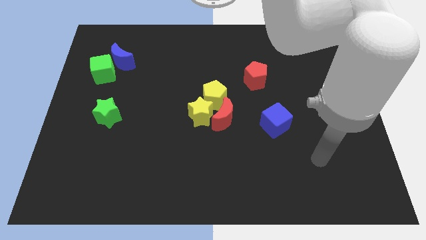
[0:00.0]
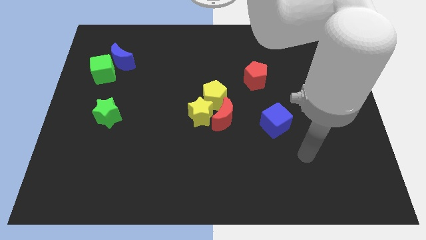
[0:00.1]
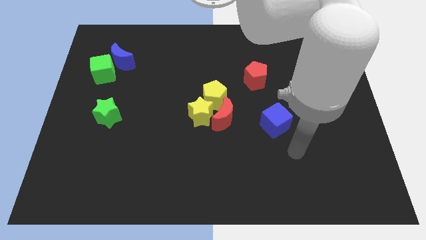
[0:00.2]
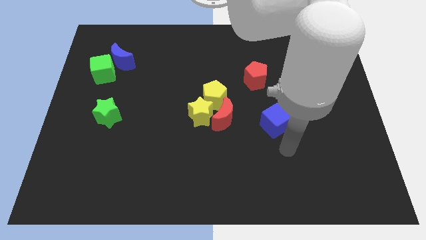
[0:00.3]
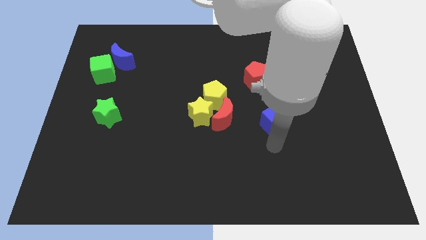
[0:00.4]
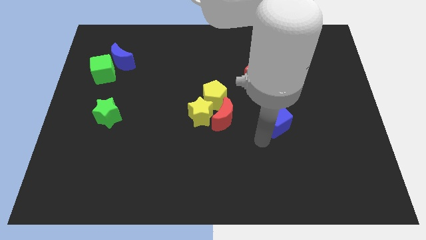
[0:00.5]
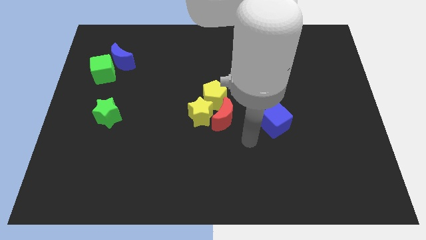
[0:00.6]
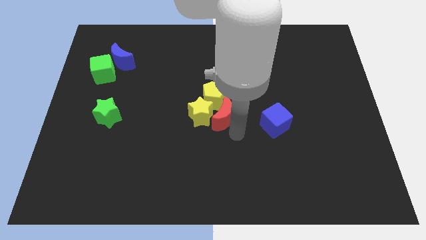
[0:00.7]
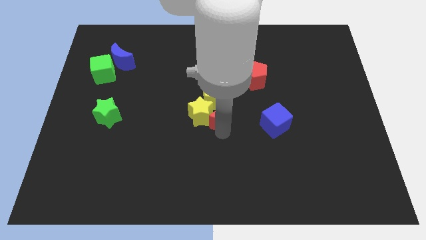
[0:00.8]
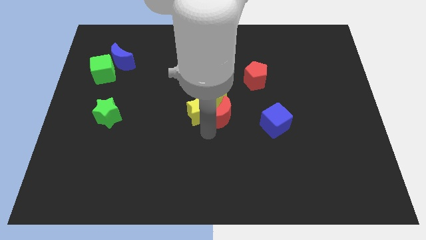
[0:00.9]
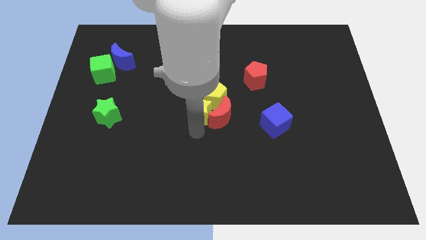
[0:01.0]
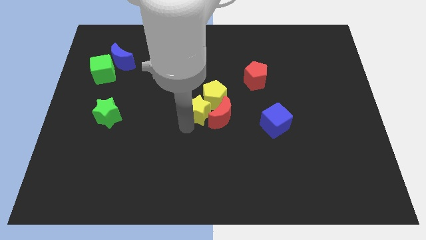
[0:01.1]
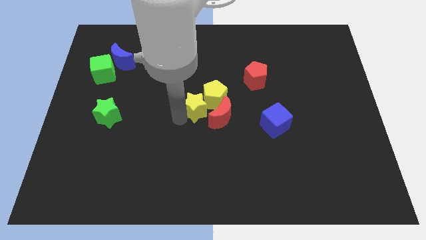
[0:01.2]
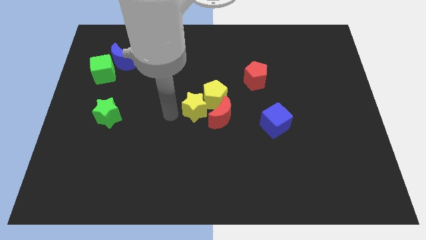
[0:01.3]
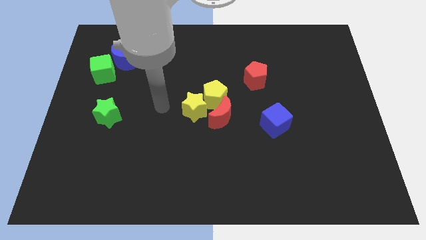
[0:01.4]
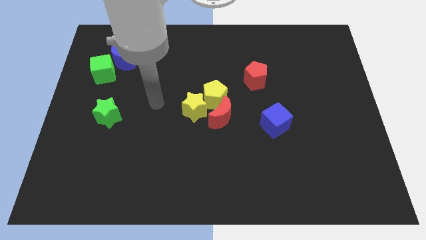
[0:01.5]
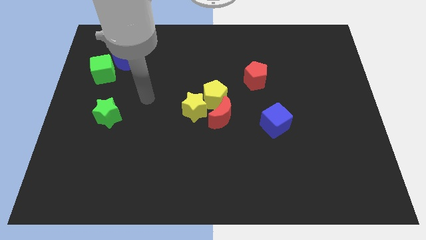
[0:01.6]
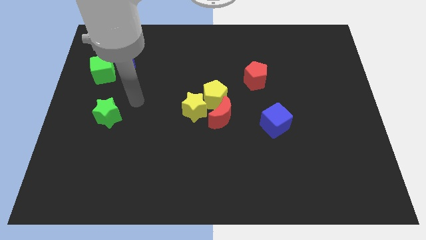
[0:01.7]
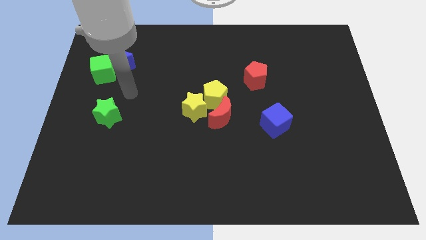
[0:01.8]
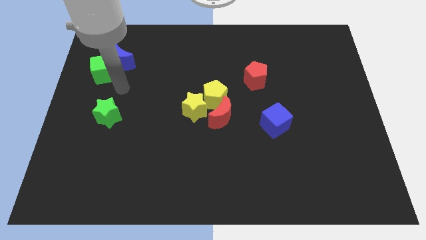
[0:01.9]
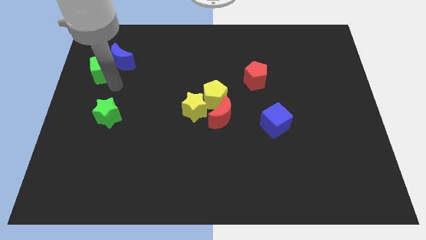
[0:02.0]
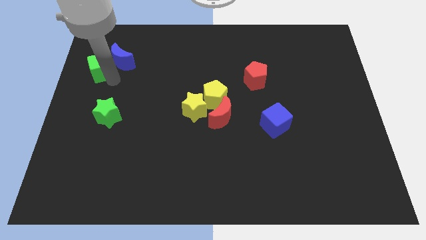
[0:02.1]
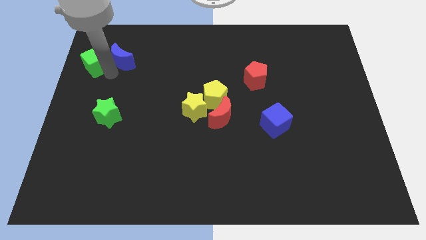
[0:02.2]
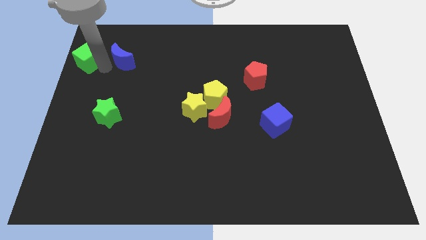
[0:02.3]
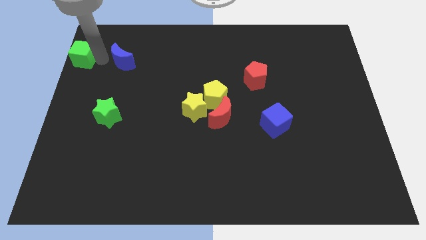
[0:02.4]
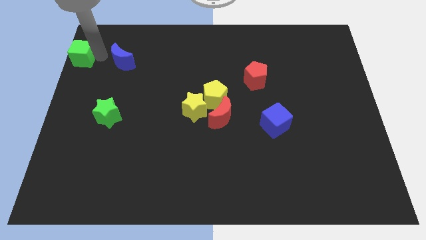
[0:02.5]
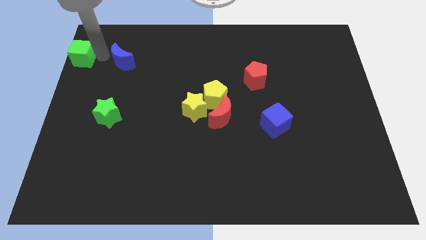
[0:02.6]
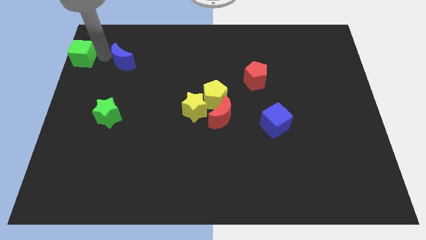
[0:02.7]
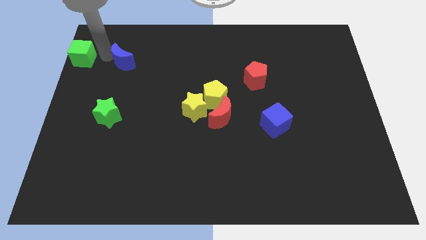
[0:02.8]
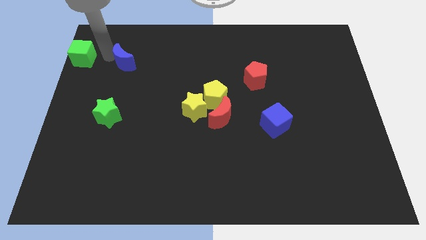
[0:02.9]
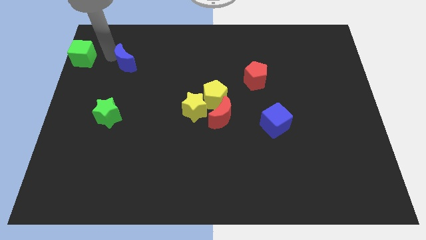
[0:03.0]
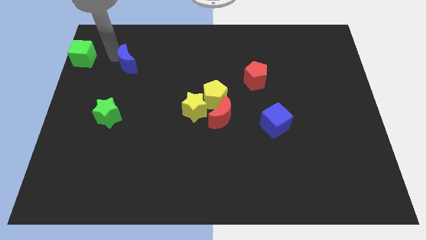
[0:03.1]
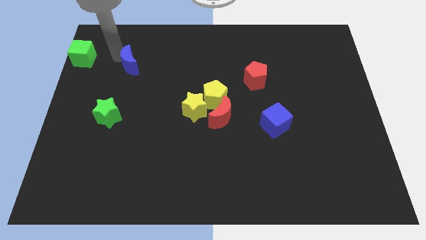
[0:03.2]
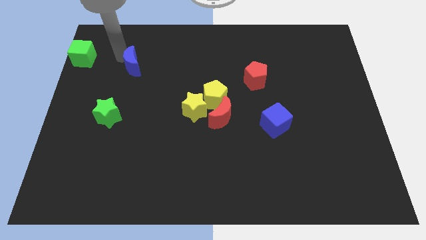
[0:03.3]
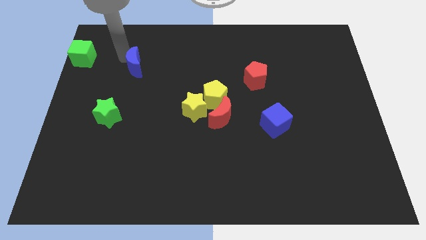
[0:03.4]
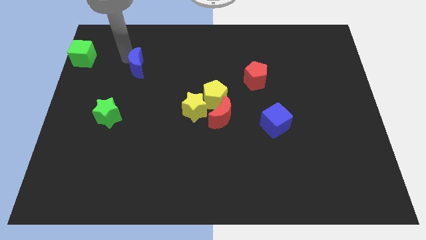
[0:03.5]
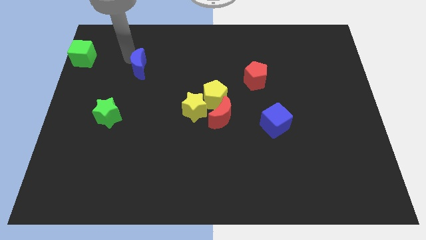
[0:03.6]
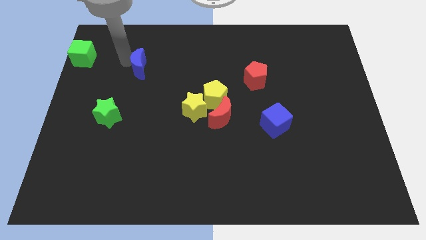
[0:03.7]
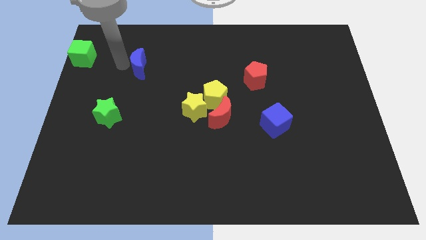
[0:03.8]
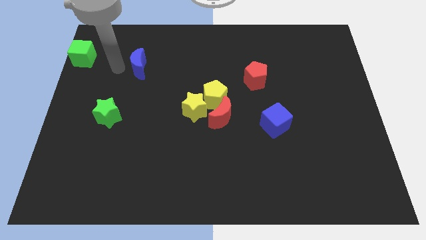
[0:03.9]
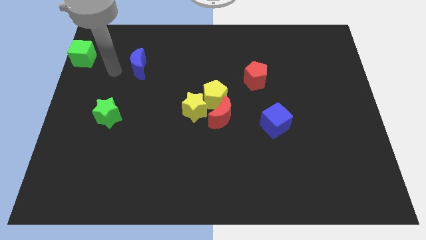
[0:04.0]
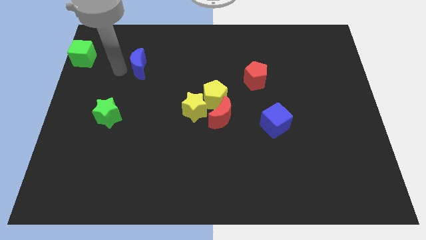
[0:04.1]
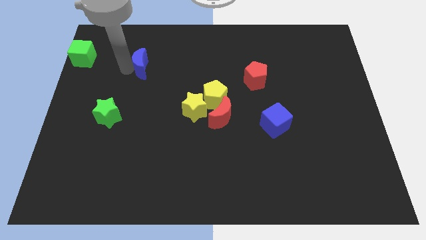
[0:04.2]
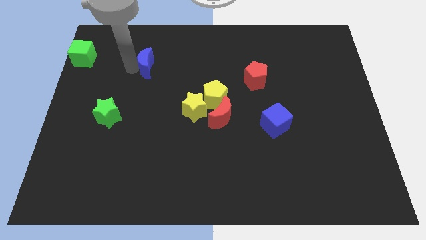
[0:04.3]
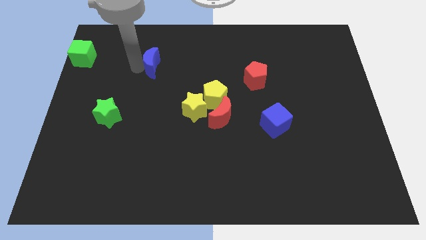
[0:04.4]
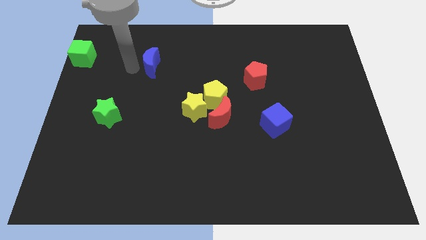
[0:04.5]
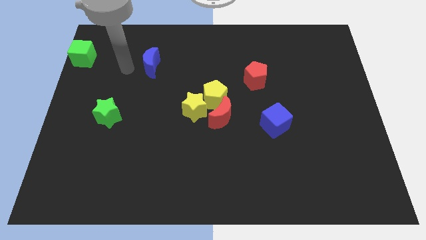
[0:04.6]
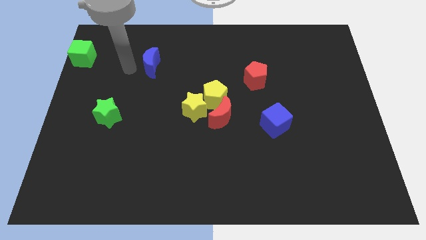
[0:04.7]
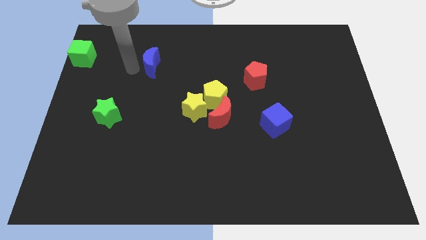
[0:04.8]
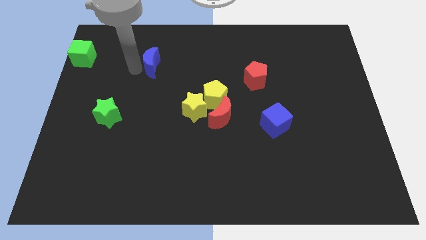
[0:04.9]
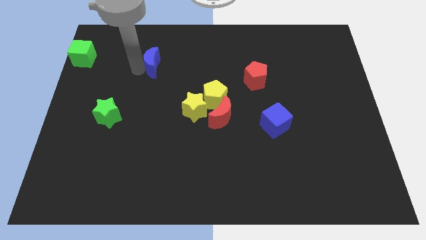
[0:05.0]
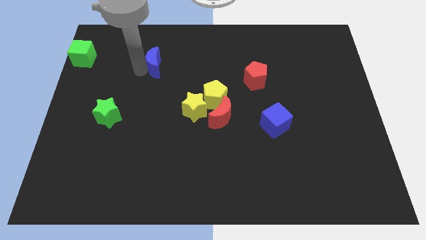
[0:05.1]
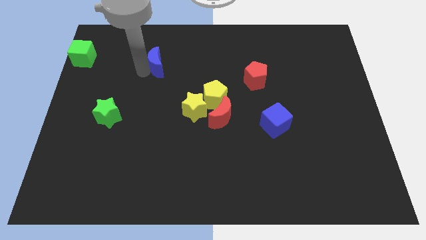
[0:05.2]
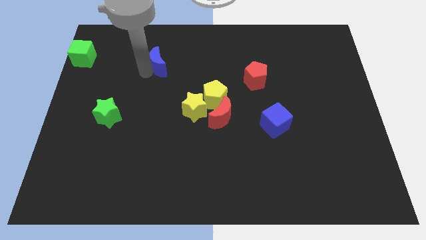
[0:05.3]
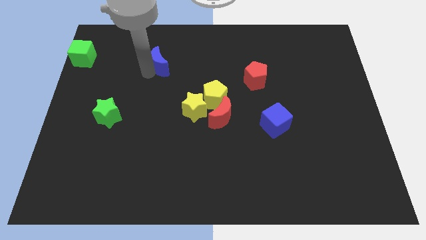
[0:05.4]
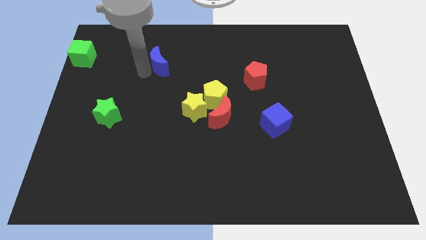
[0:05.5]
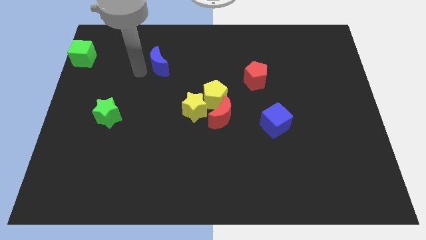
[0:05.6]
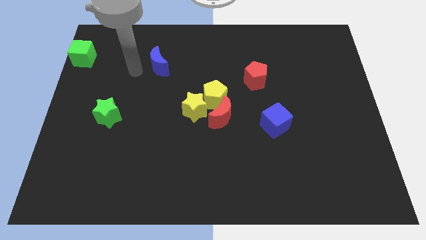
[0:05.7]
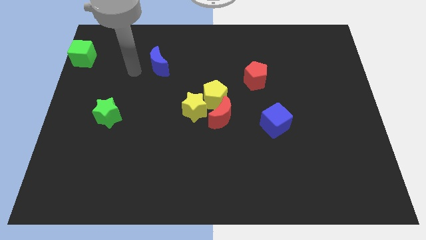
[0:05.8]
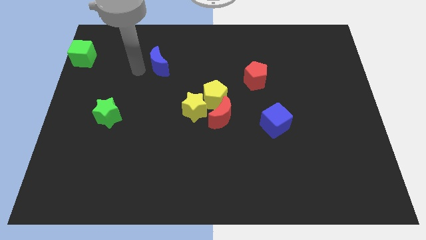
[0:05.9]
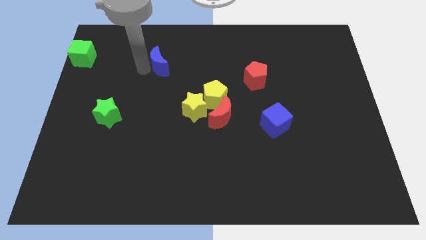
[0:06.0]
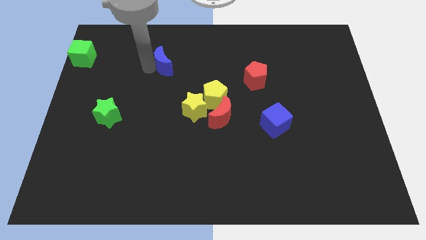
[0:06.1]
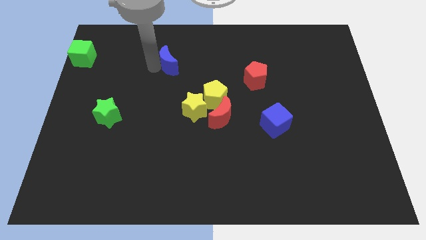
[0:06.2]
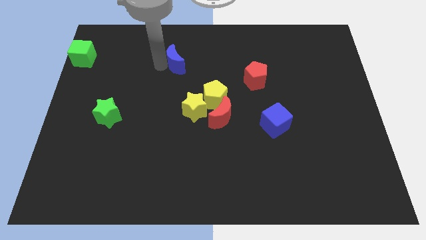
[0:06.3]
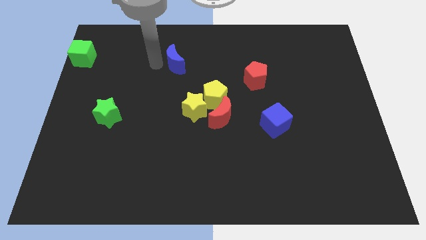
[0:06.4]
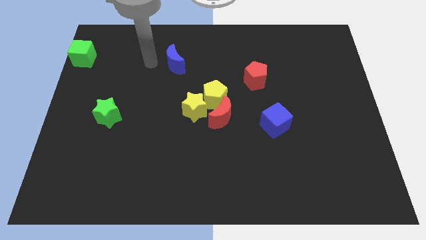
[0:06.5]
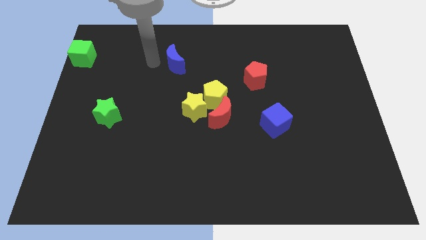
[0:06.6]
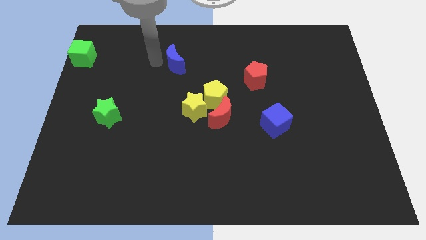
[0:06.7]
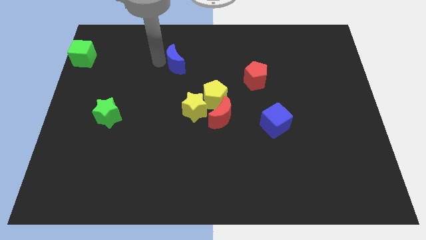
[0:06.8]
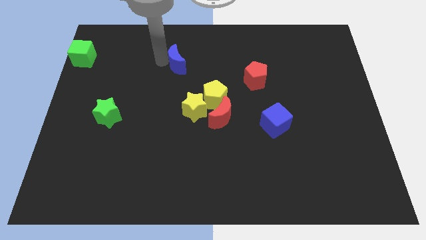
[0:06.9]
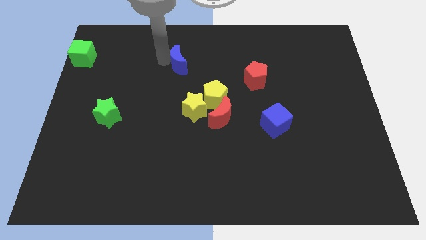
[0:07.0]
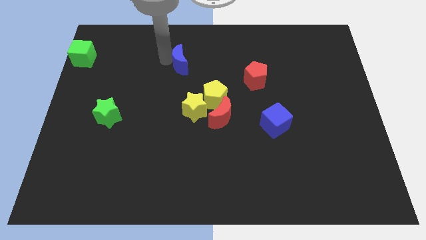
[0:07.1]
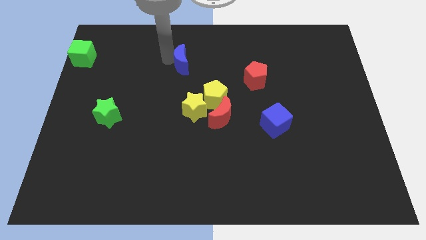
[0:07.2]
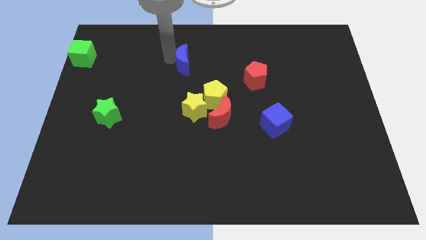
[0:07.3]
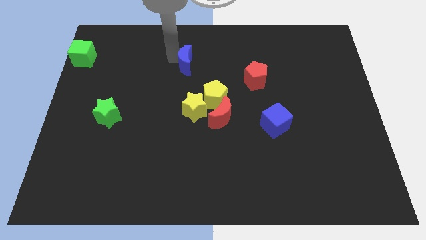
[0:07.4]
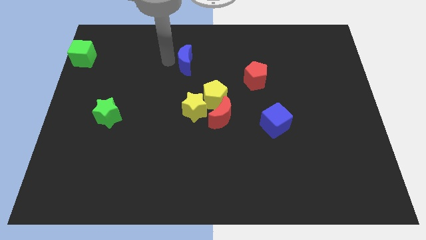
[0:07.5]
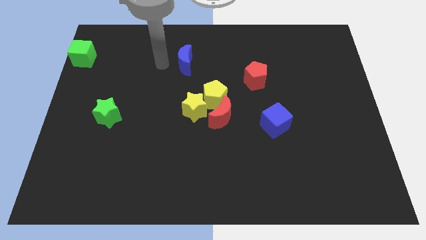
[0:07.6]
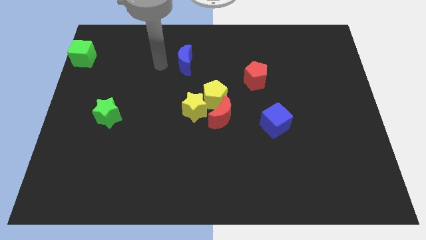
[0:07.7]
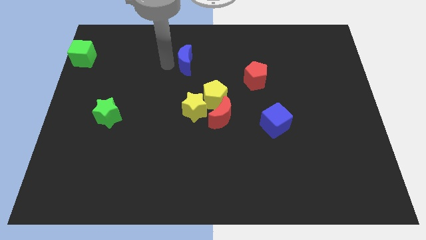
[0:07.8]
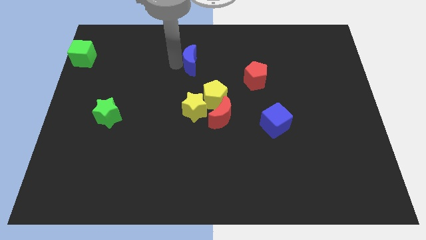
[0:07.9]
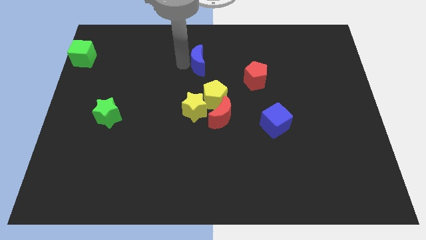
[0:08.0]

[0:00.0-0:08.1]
move the blue moon to the right
